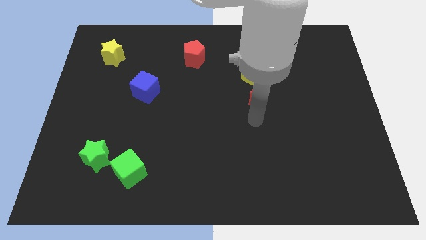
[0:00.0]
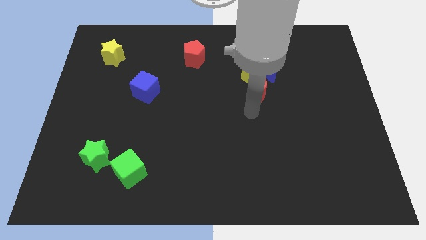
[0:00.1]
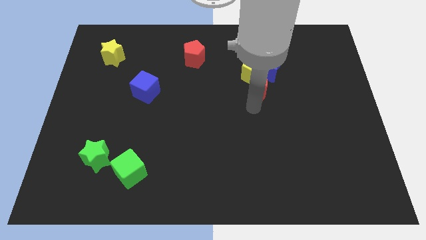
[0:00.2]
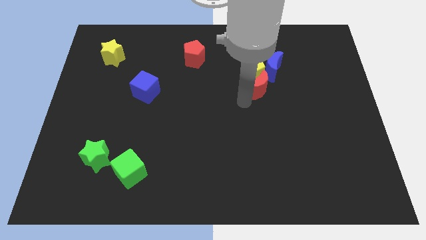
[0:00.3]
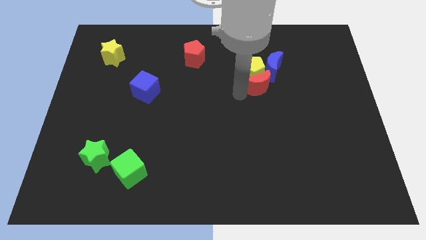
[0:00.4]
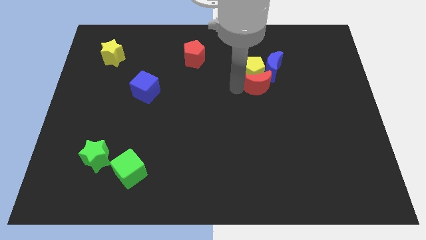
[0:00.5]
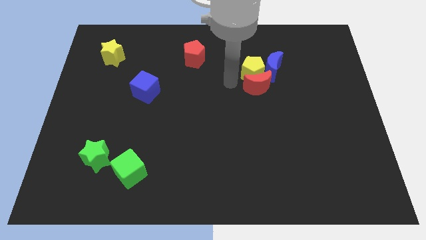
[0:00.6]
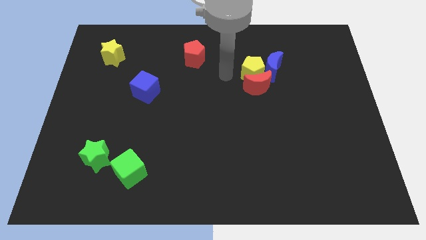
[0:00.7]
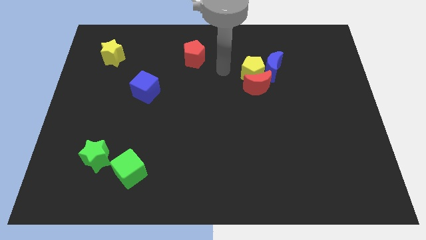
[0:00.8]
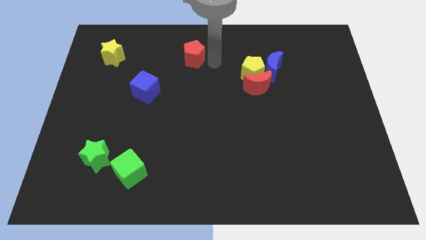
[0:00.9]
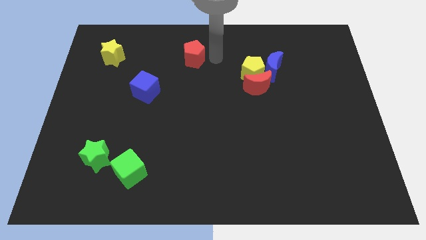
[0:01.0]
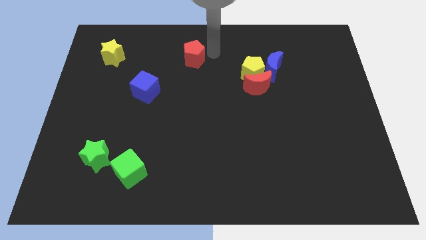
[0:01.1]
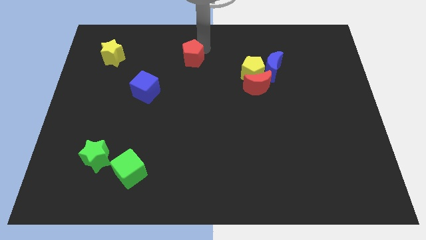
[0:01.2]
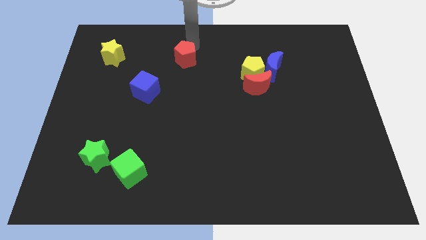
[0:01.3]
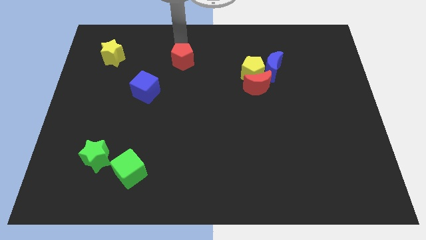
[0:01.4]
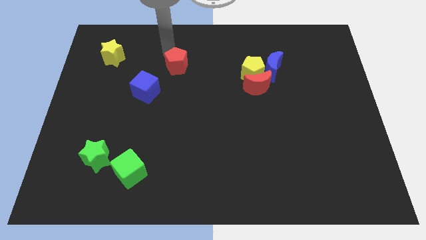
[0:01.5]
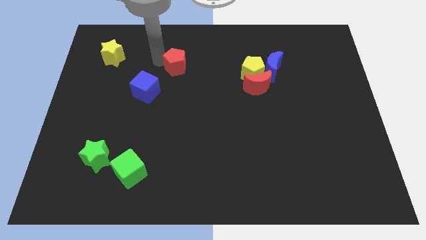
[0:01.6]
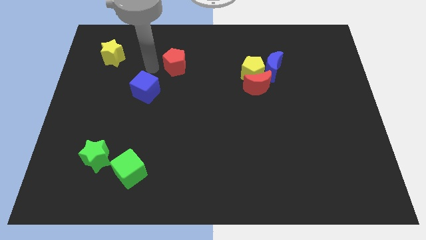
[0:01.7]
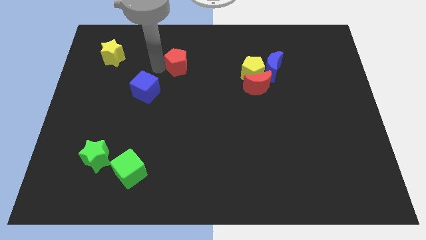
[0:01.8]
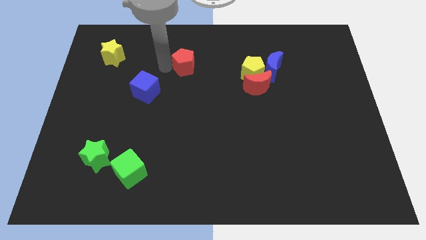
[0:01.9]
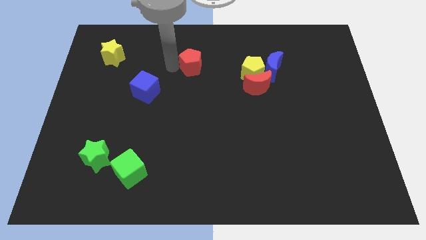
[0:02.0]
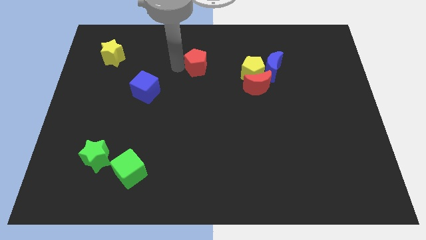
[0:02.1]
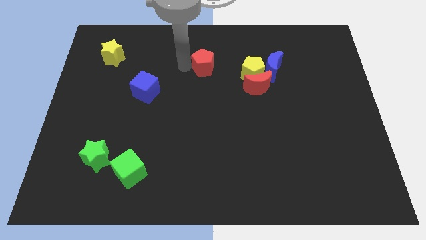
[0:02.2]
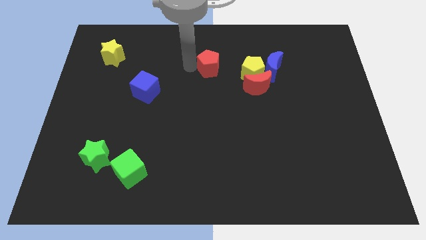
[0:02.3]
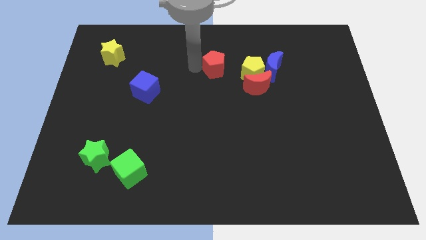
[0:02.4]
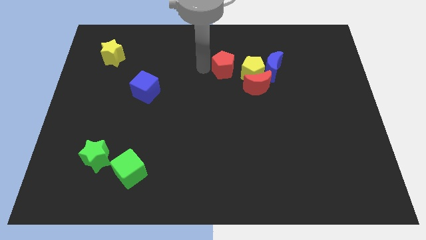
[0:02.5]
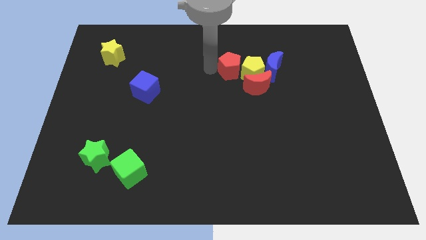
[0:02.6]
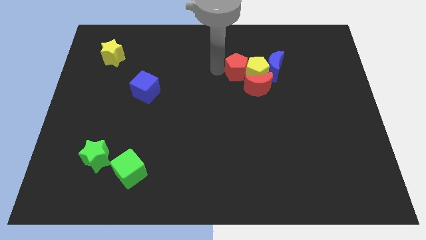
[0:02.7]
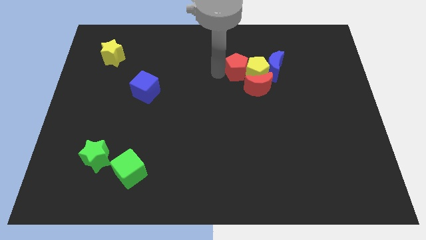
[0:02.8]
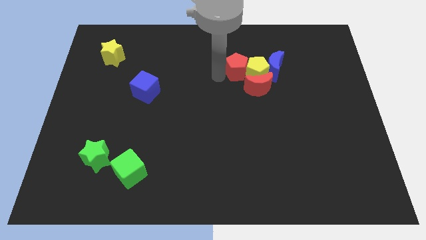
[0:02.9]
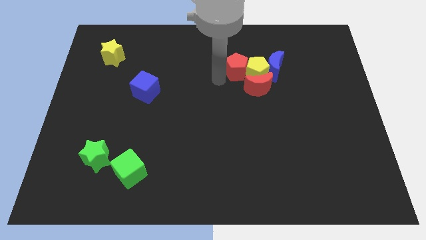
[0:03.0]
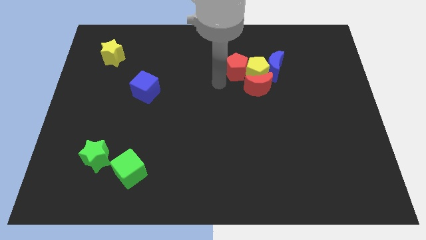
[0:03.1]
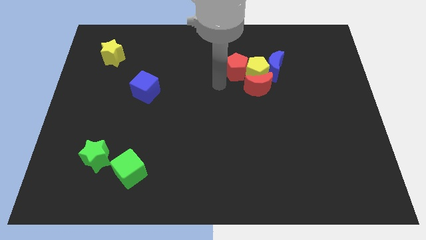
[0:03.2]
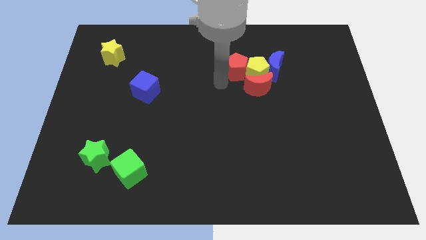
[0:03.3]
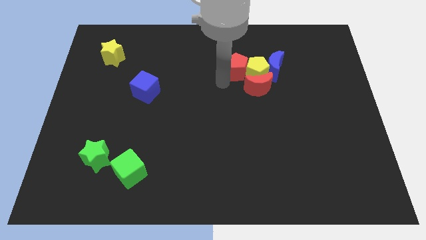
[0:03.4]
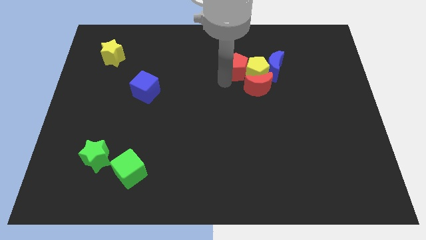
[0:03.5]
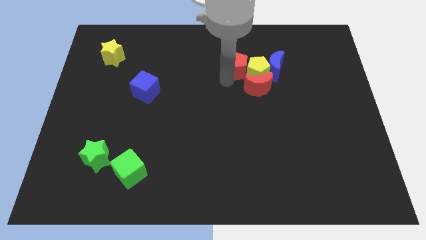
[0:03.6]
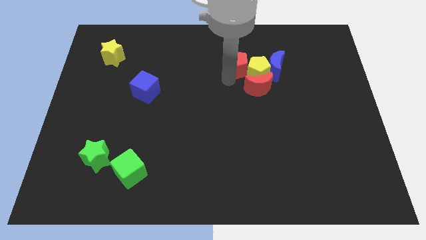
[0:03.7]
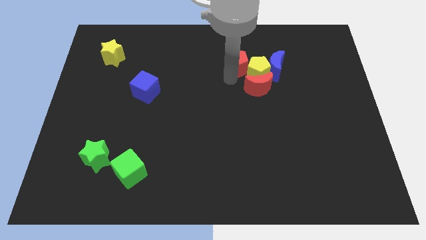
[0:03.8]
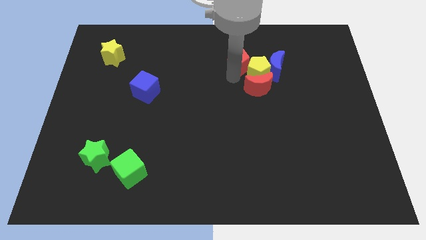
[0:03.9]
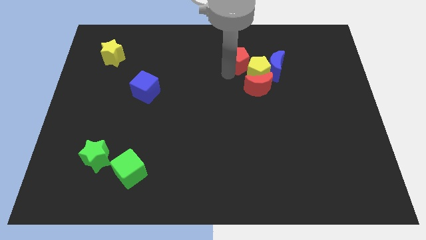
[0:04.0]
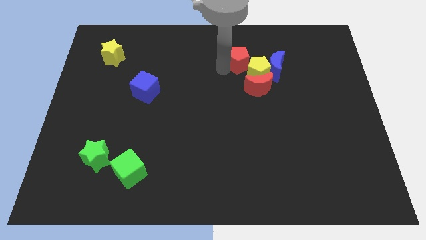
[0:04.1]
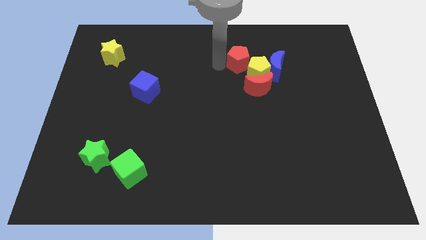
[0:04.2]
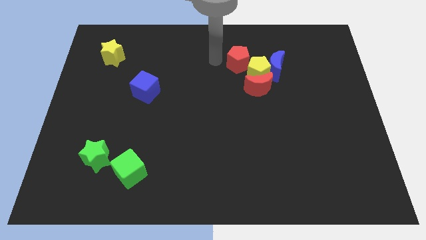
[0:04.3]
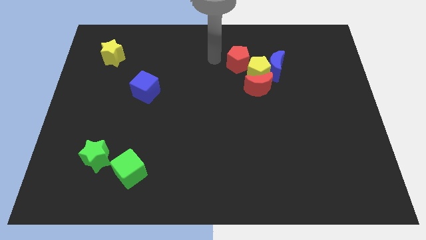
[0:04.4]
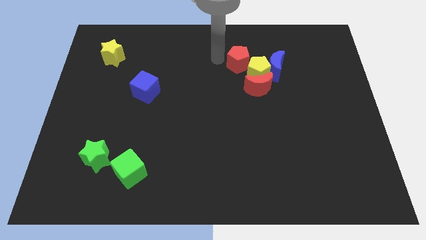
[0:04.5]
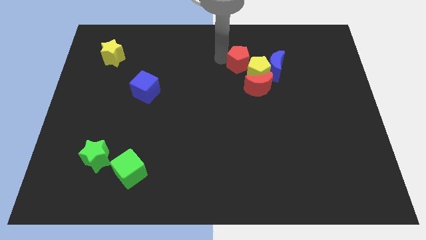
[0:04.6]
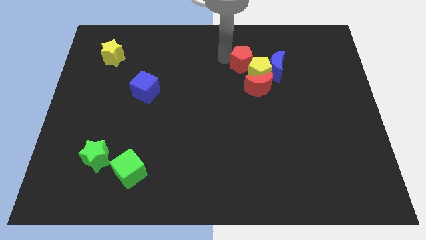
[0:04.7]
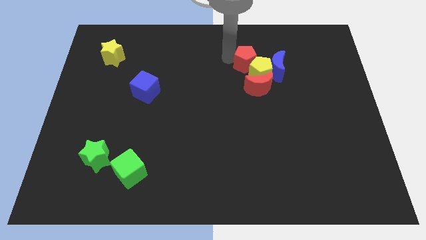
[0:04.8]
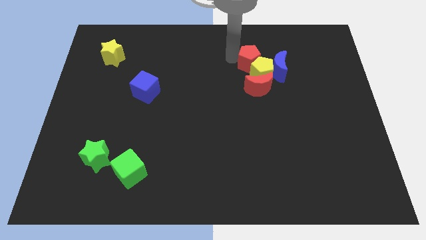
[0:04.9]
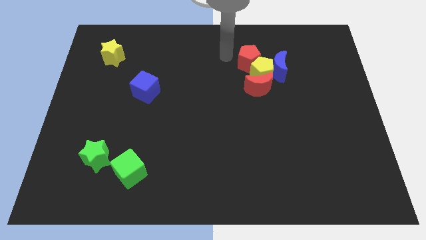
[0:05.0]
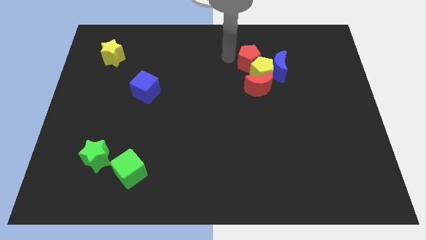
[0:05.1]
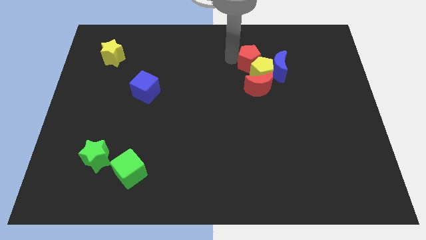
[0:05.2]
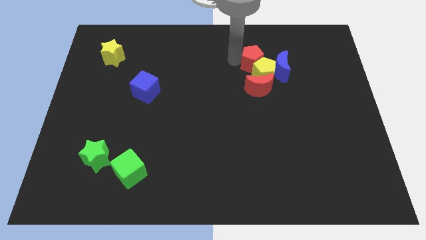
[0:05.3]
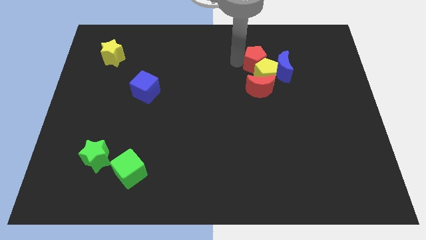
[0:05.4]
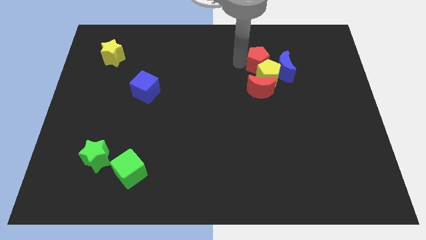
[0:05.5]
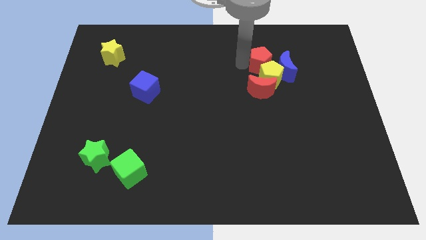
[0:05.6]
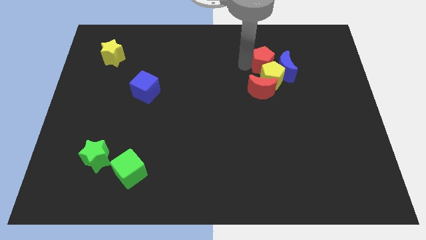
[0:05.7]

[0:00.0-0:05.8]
move the red pentagon towards the blue moon

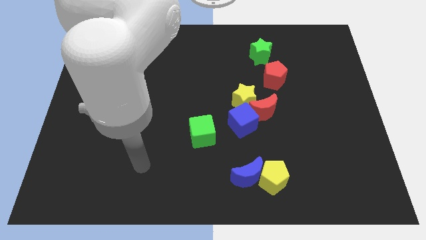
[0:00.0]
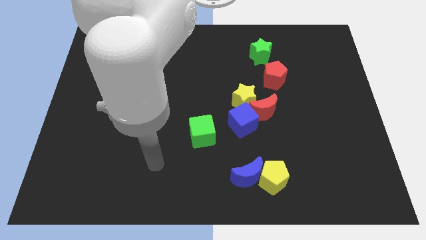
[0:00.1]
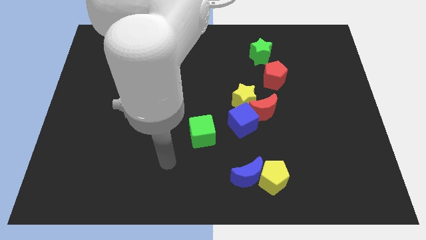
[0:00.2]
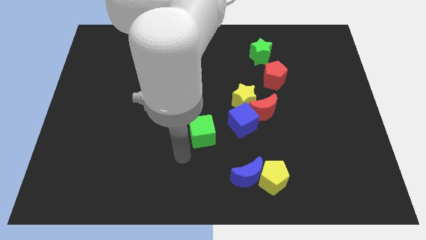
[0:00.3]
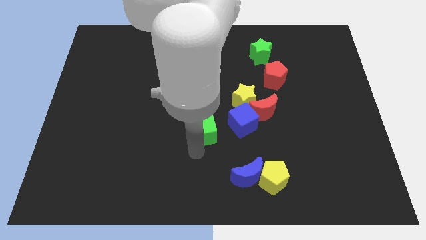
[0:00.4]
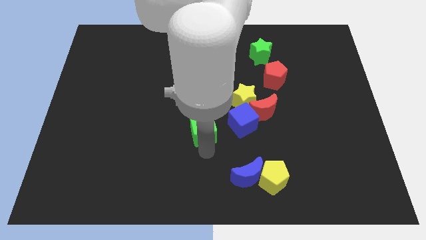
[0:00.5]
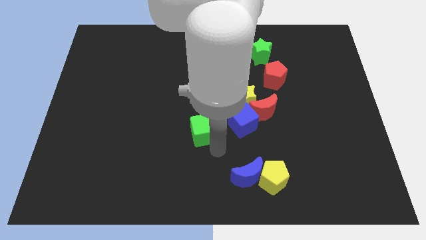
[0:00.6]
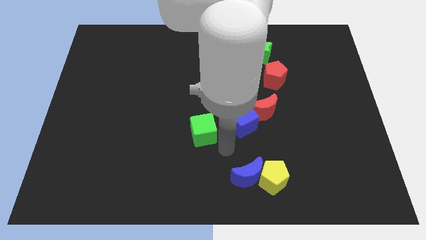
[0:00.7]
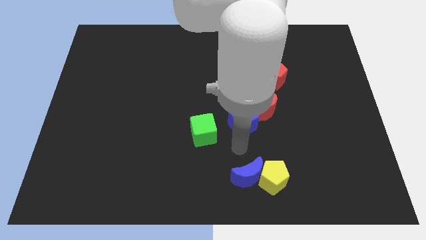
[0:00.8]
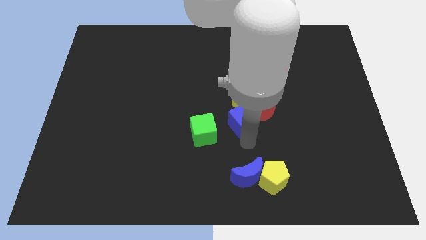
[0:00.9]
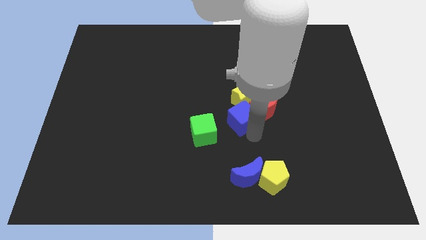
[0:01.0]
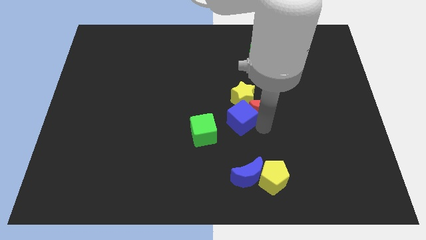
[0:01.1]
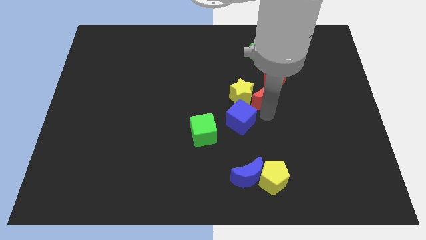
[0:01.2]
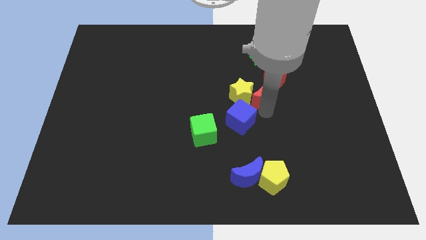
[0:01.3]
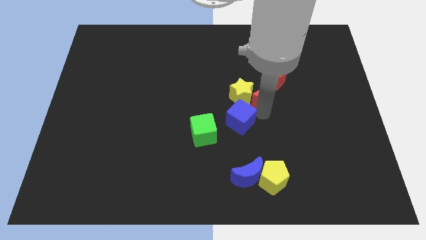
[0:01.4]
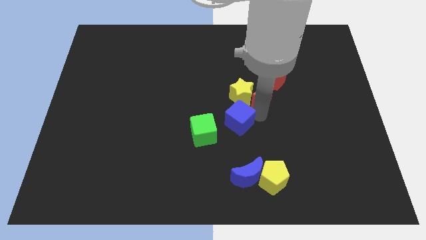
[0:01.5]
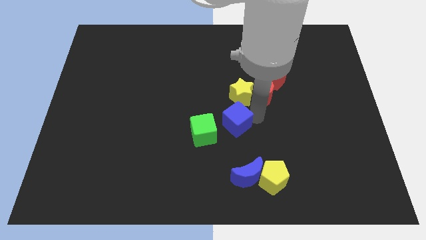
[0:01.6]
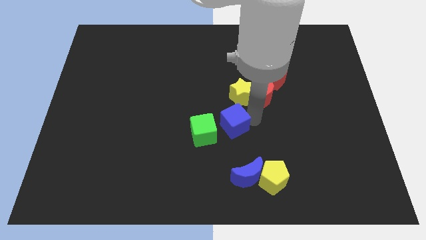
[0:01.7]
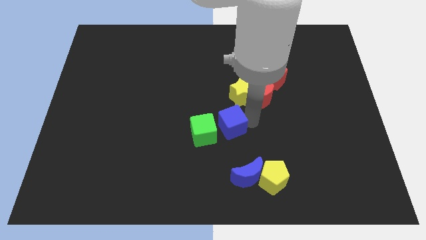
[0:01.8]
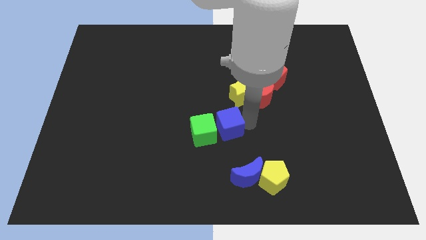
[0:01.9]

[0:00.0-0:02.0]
move the blue cube close to the green cube
